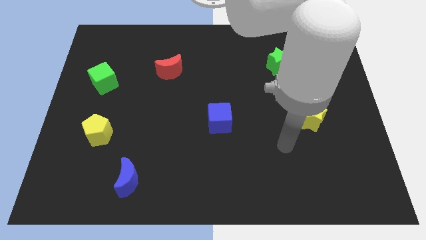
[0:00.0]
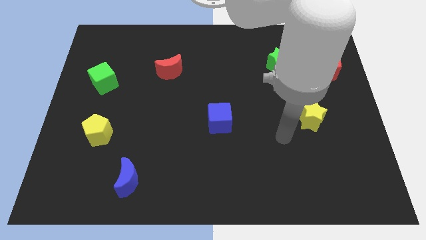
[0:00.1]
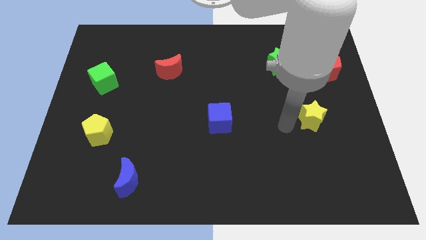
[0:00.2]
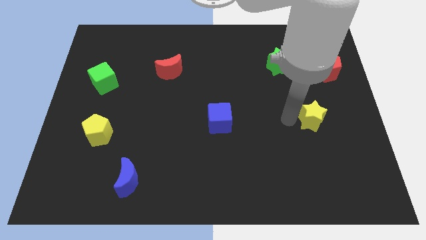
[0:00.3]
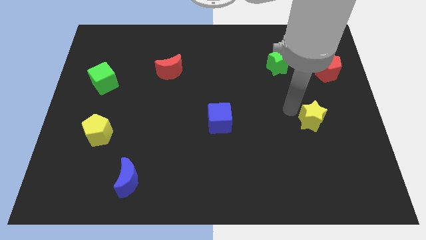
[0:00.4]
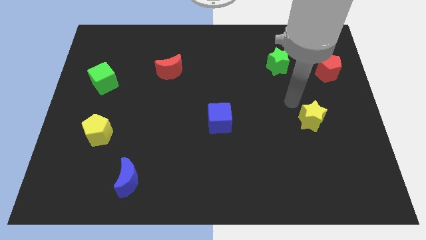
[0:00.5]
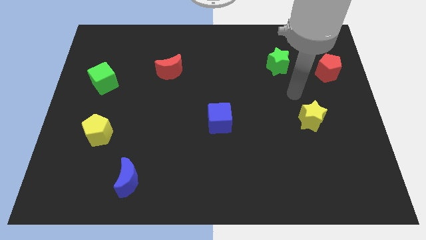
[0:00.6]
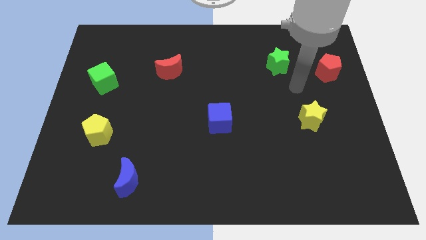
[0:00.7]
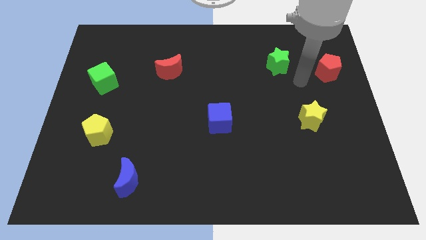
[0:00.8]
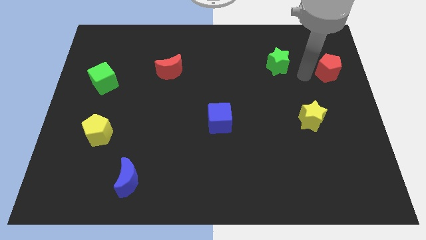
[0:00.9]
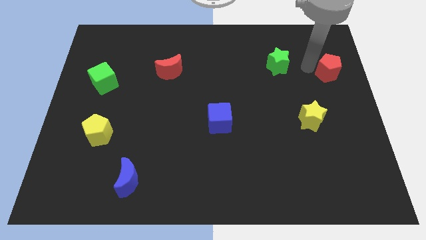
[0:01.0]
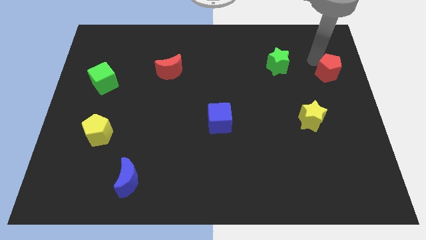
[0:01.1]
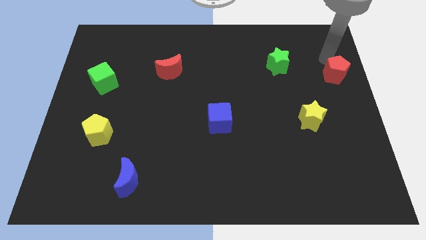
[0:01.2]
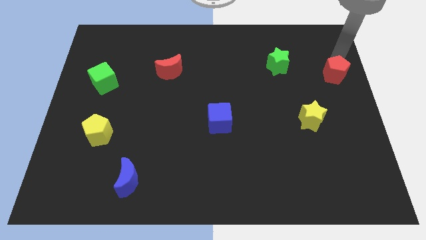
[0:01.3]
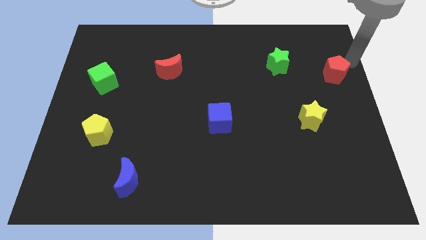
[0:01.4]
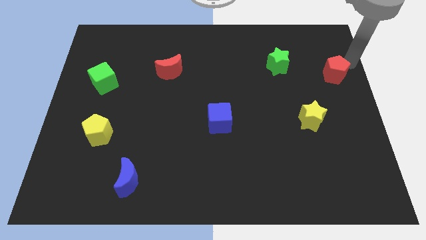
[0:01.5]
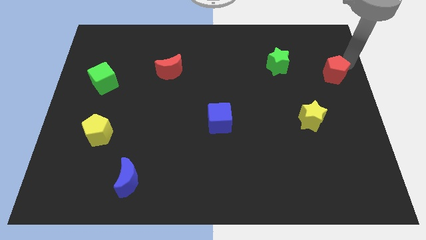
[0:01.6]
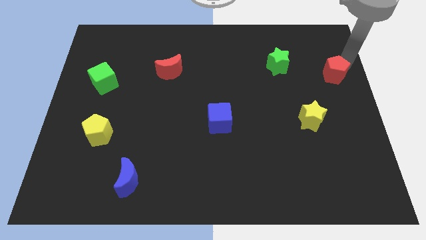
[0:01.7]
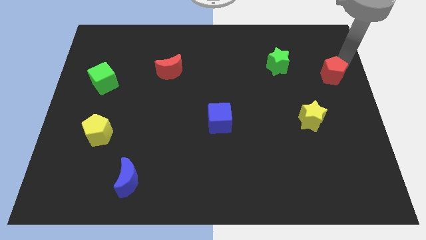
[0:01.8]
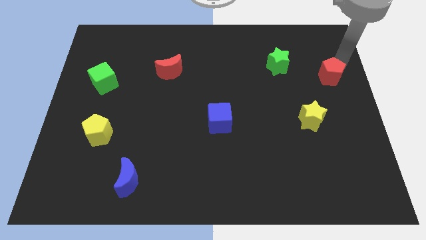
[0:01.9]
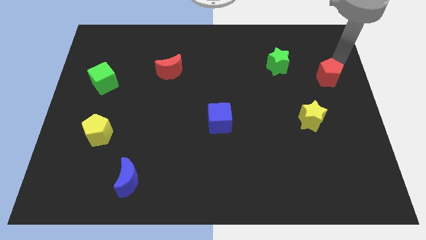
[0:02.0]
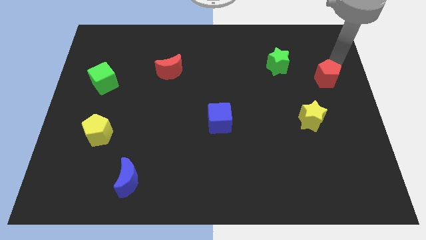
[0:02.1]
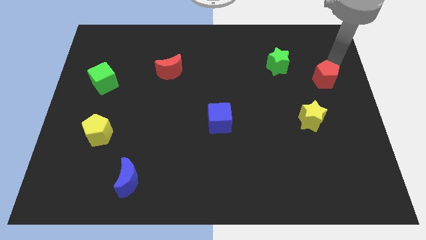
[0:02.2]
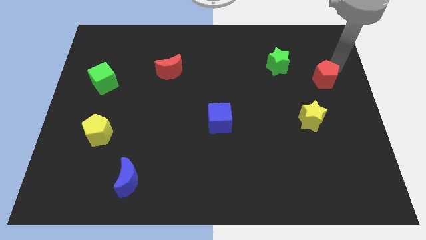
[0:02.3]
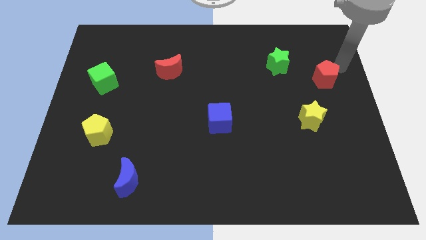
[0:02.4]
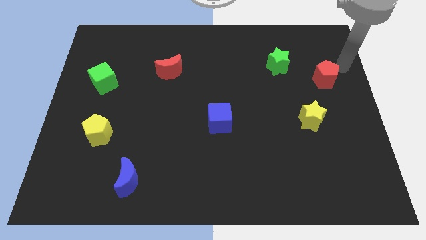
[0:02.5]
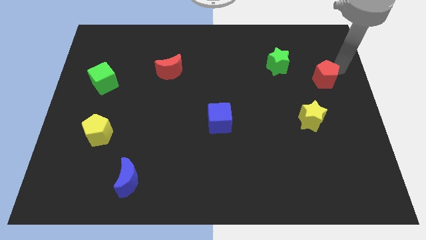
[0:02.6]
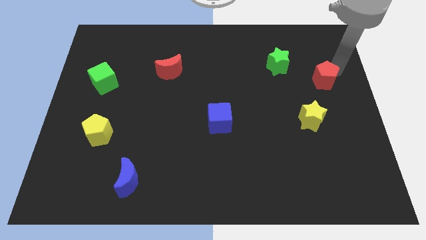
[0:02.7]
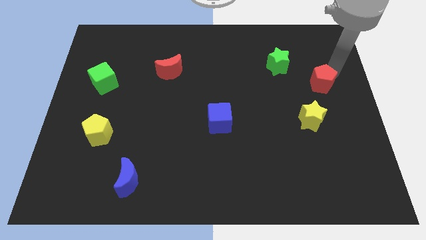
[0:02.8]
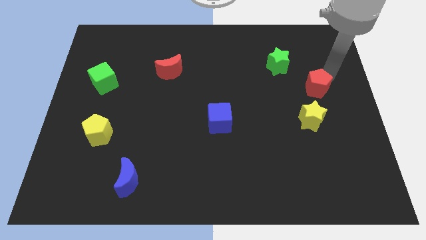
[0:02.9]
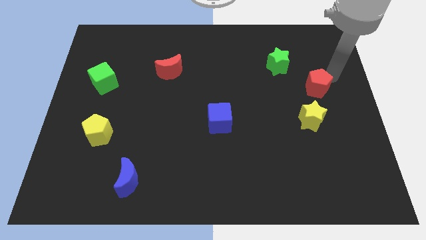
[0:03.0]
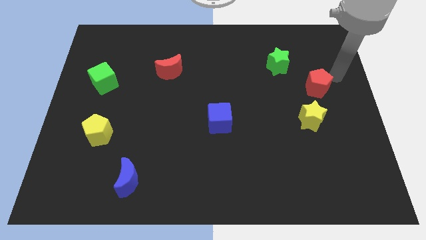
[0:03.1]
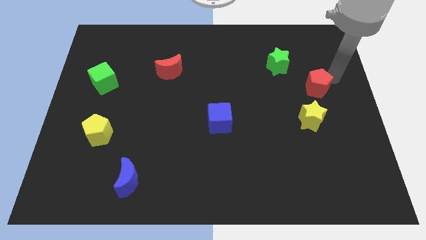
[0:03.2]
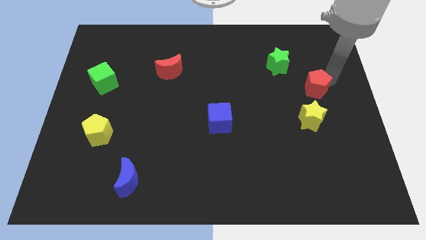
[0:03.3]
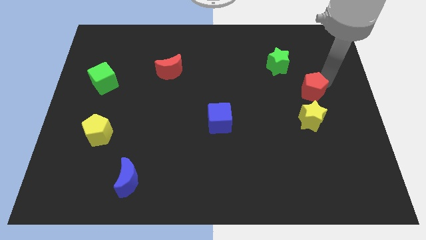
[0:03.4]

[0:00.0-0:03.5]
push the red pentagon downwards and to the left somewhat

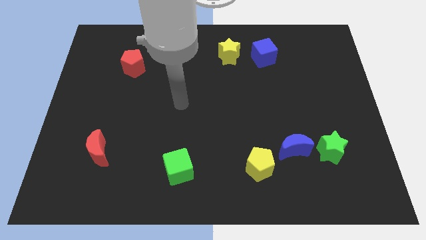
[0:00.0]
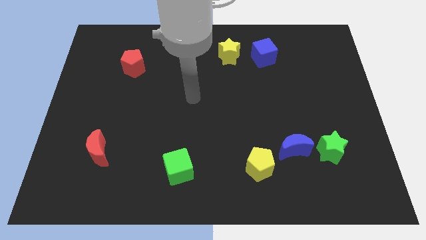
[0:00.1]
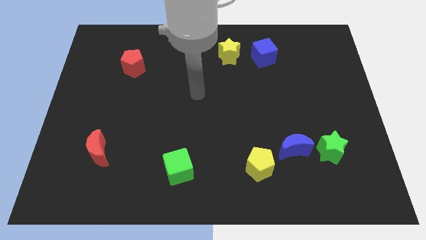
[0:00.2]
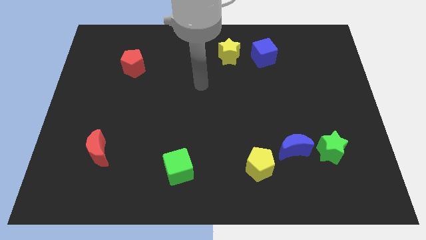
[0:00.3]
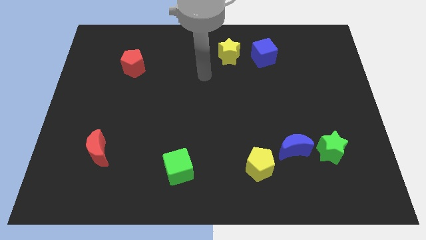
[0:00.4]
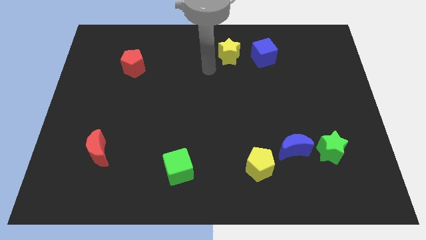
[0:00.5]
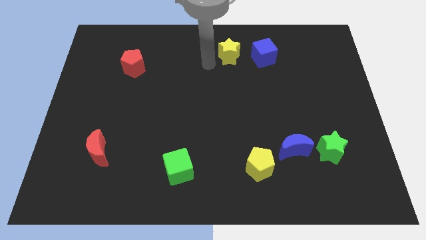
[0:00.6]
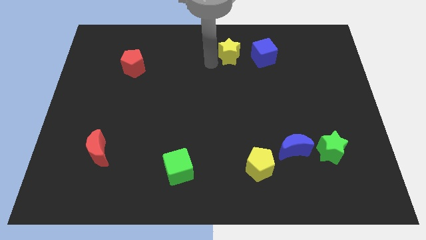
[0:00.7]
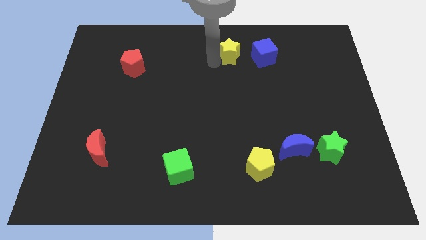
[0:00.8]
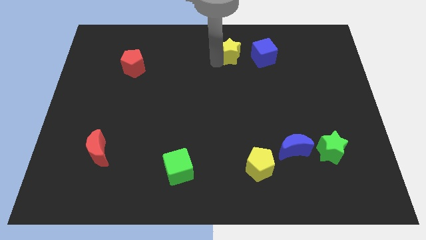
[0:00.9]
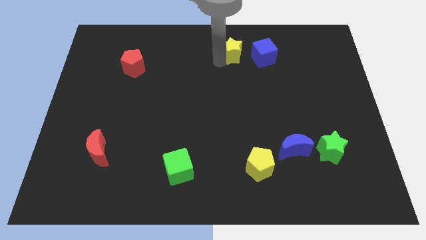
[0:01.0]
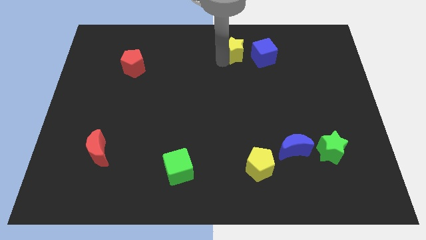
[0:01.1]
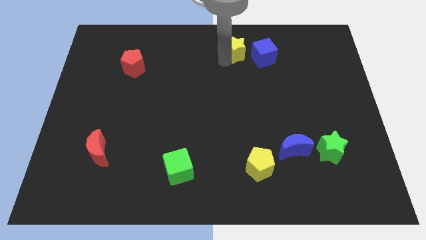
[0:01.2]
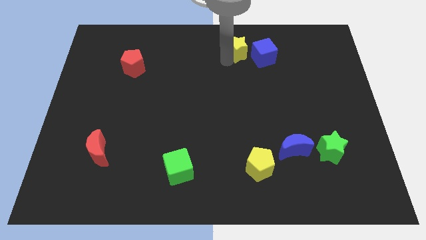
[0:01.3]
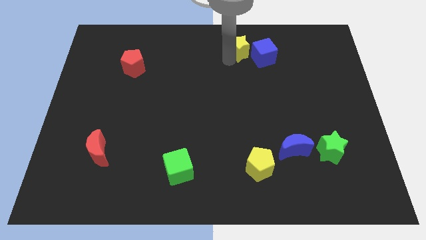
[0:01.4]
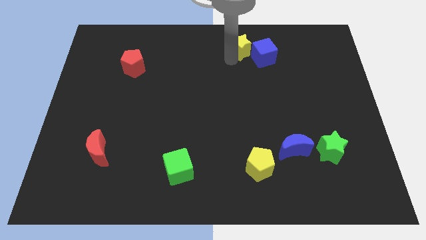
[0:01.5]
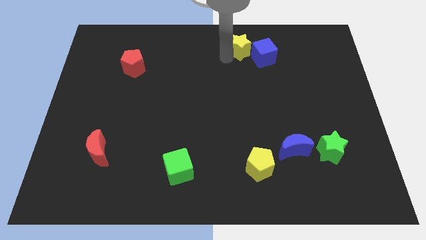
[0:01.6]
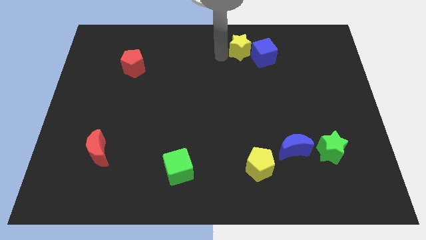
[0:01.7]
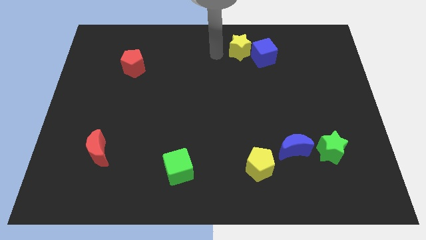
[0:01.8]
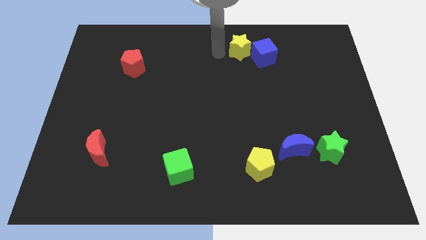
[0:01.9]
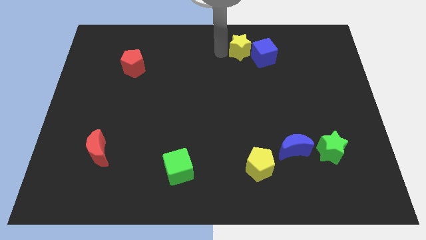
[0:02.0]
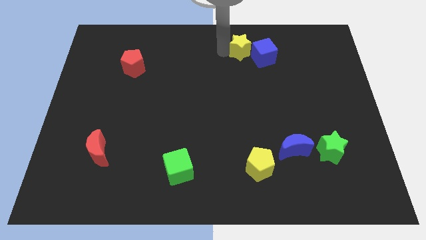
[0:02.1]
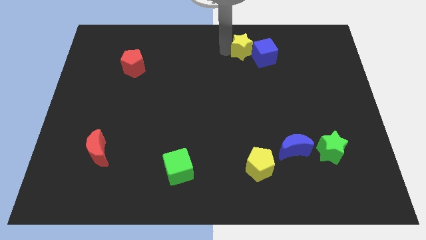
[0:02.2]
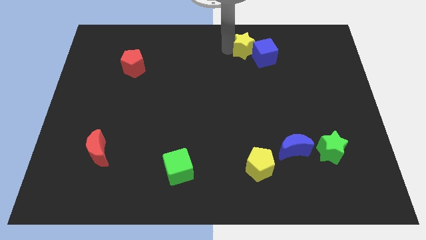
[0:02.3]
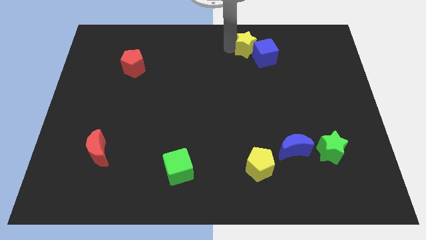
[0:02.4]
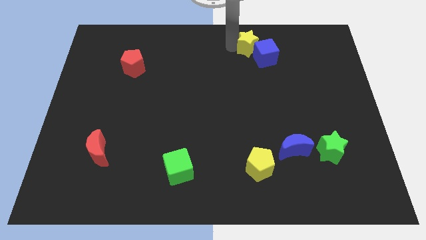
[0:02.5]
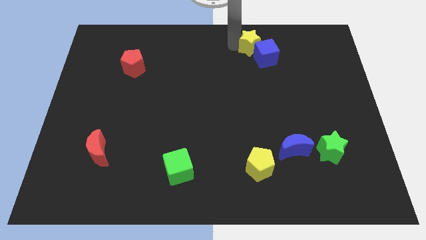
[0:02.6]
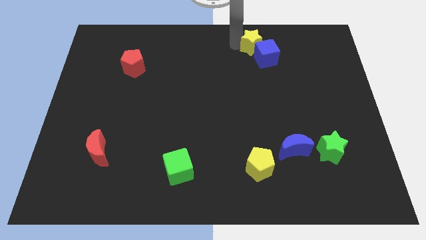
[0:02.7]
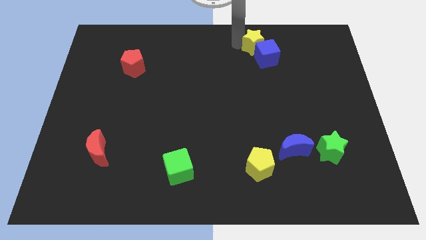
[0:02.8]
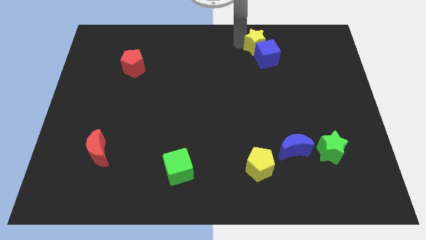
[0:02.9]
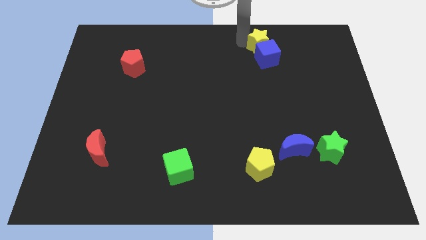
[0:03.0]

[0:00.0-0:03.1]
slightly move the yellow star to the right

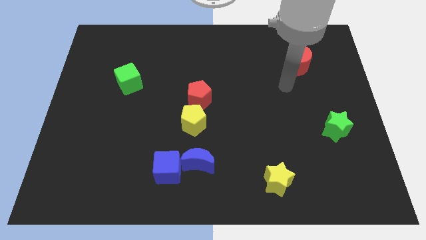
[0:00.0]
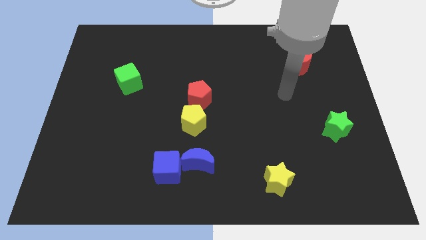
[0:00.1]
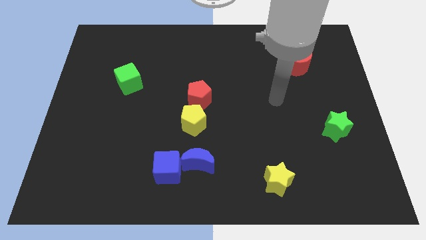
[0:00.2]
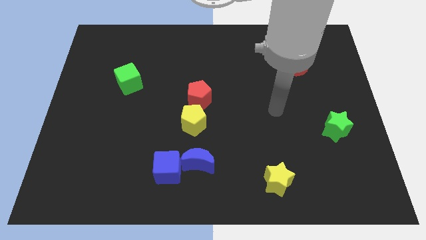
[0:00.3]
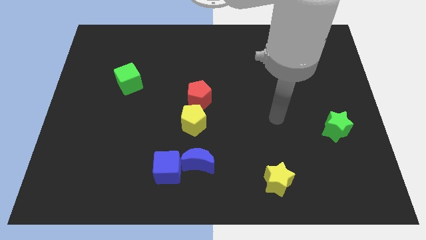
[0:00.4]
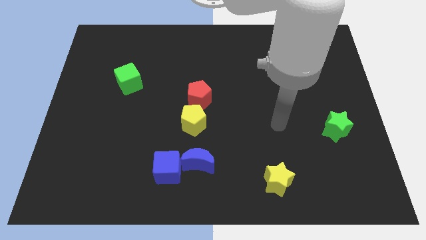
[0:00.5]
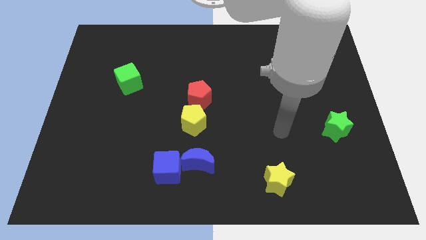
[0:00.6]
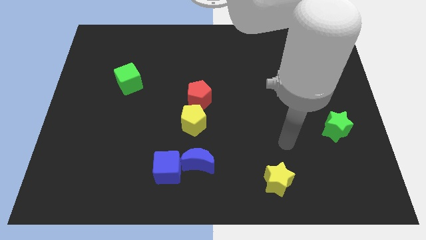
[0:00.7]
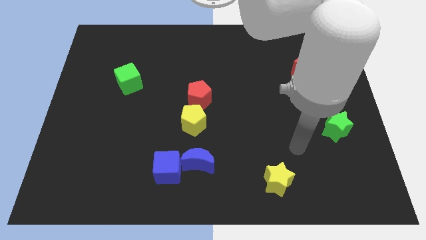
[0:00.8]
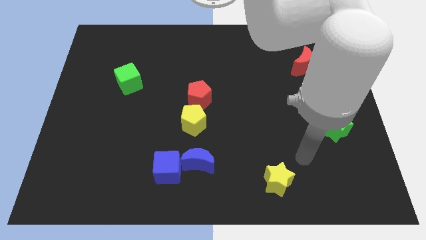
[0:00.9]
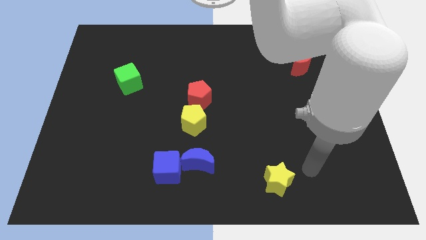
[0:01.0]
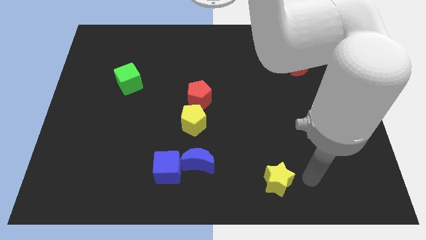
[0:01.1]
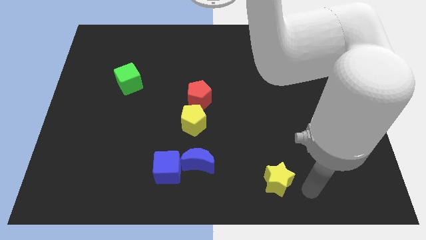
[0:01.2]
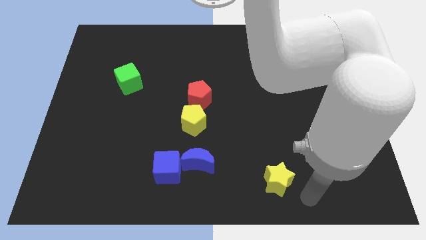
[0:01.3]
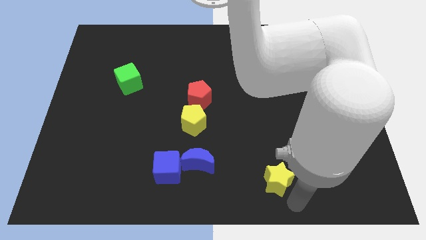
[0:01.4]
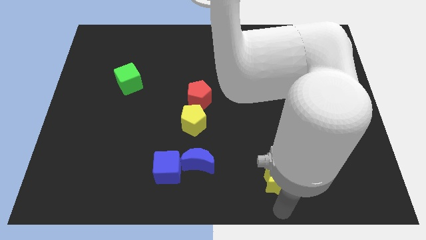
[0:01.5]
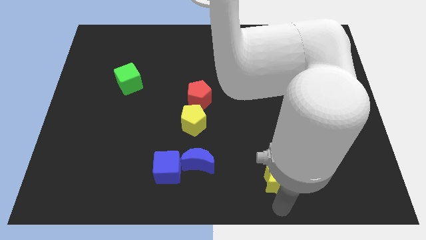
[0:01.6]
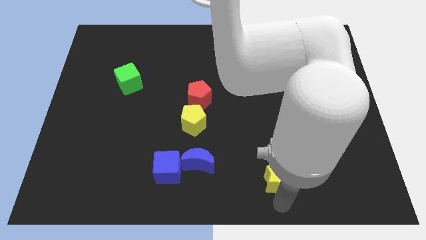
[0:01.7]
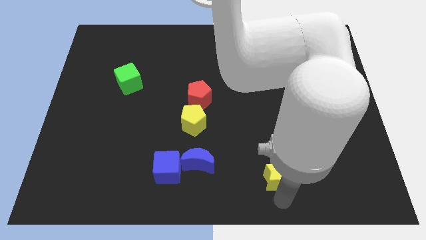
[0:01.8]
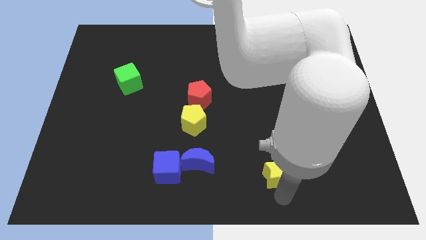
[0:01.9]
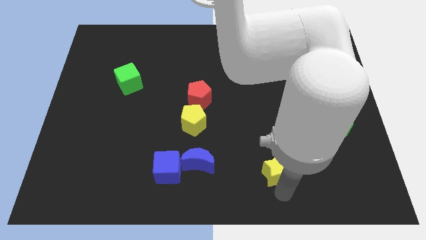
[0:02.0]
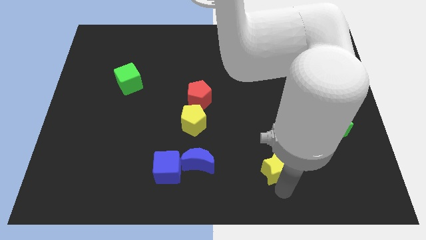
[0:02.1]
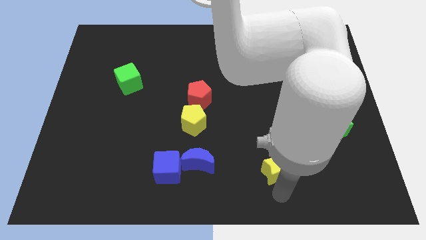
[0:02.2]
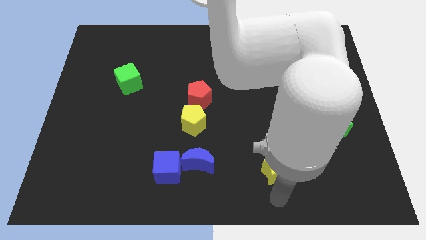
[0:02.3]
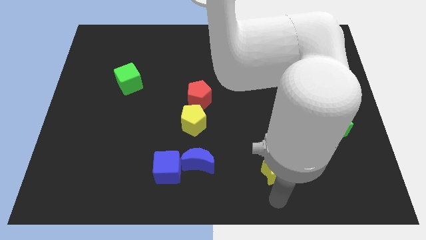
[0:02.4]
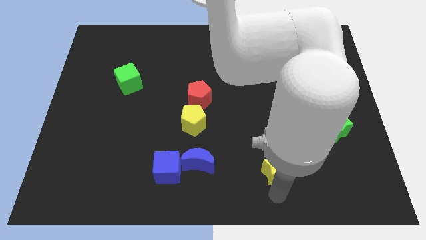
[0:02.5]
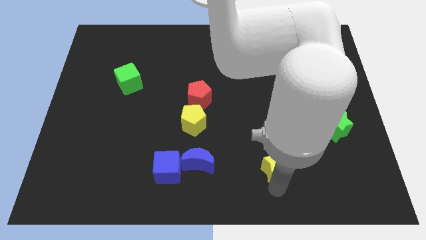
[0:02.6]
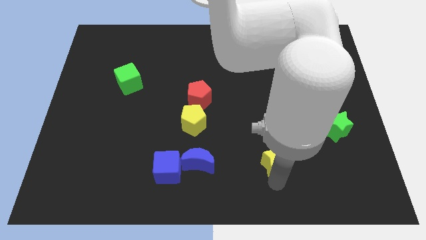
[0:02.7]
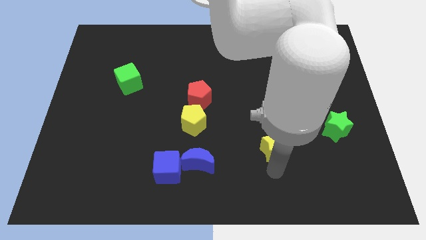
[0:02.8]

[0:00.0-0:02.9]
slide the yellow star upwards slightly
